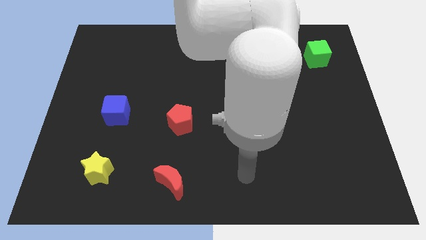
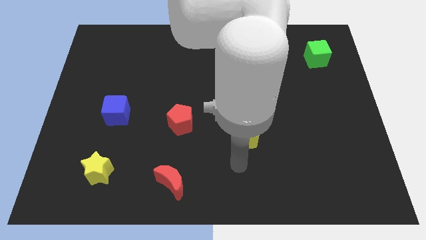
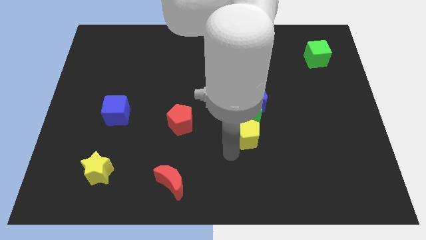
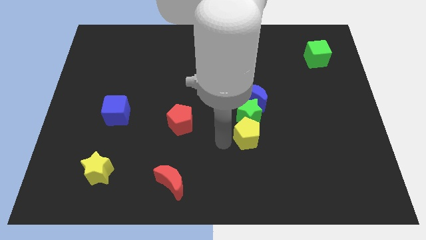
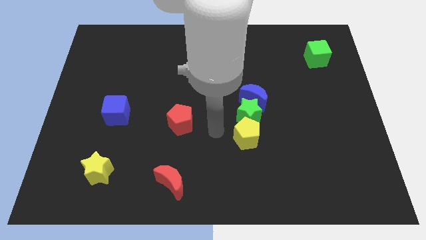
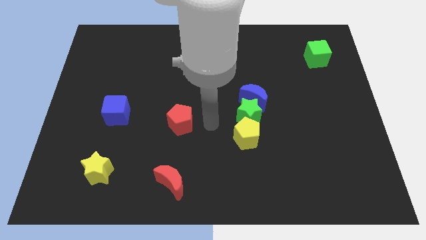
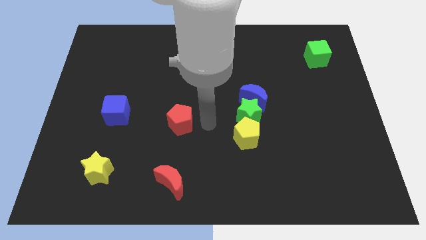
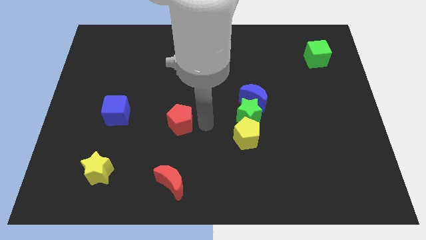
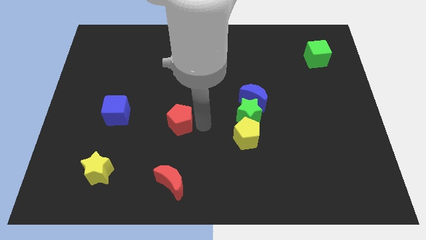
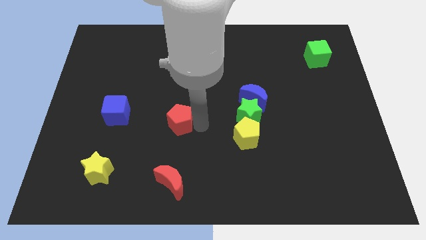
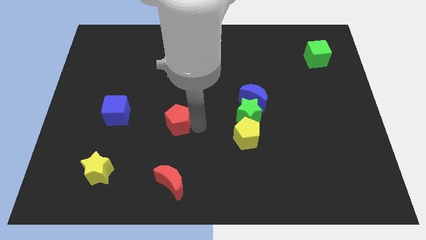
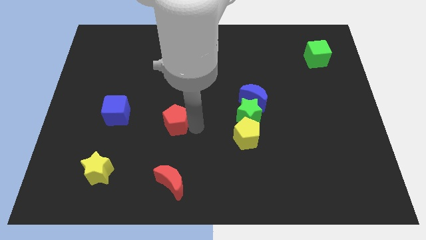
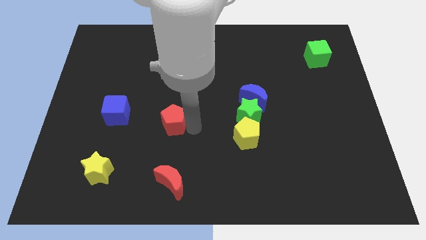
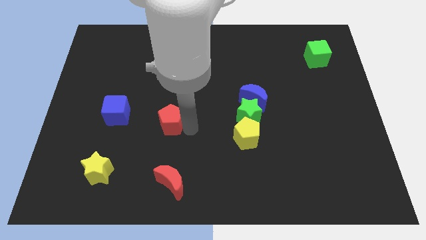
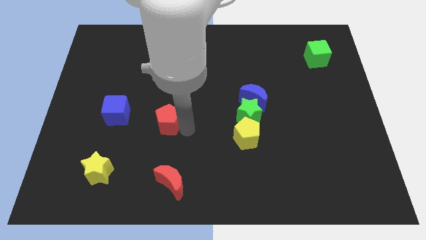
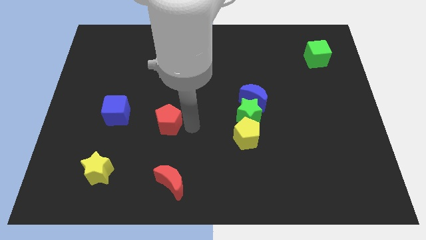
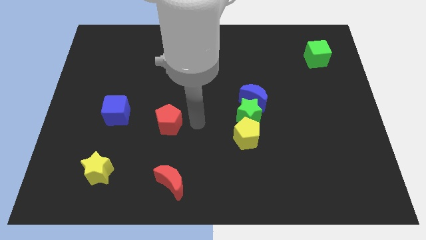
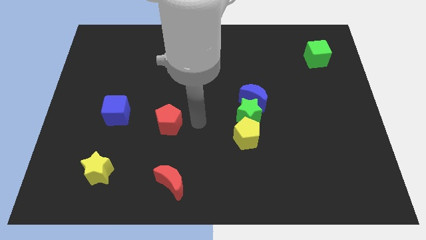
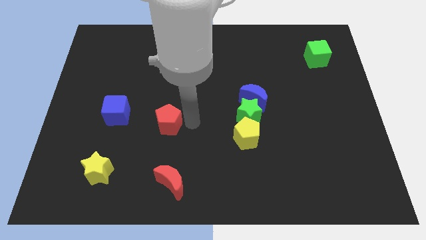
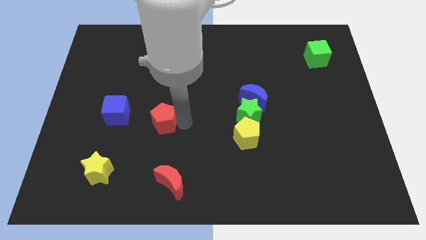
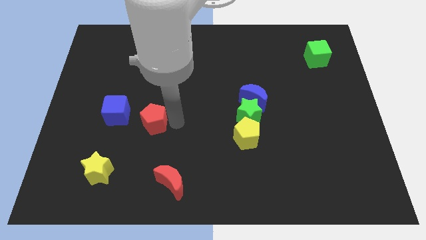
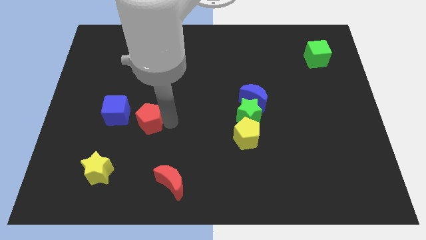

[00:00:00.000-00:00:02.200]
slide the red pentagon a little bit left

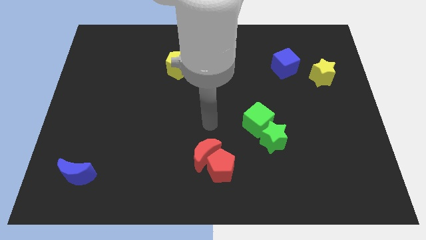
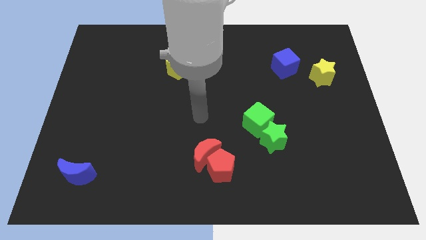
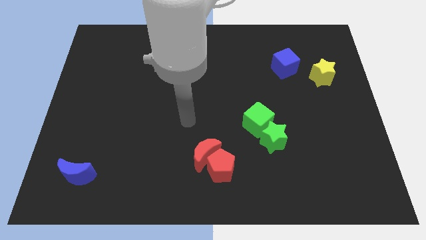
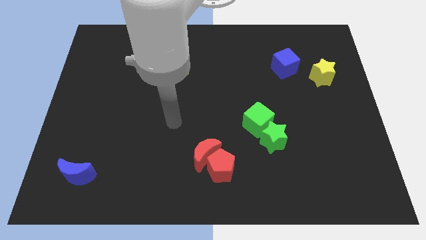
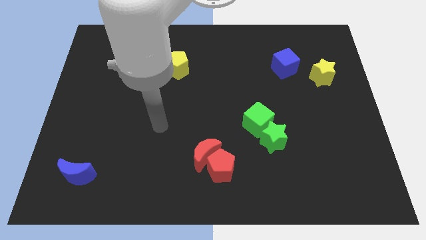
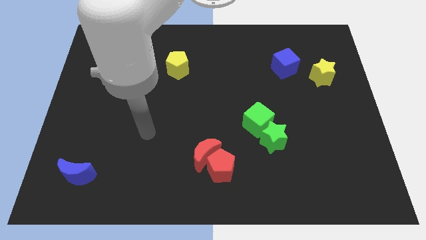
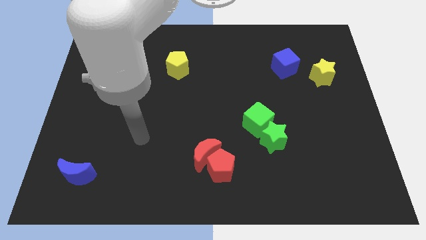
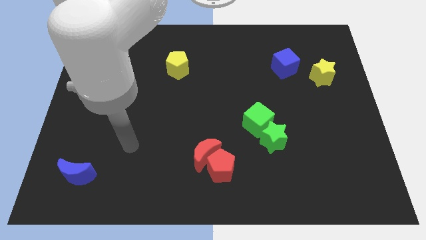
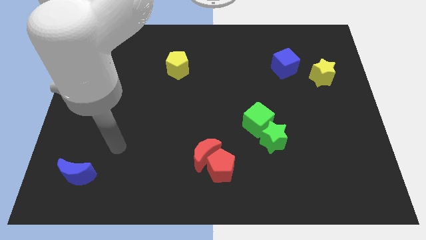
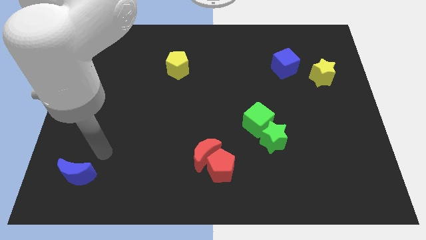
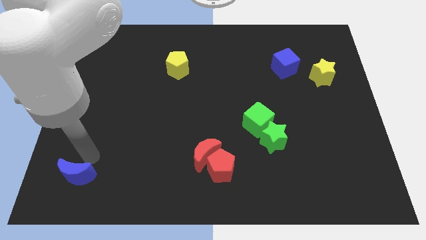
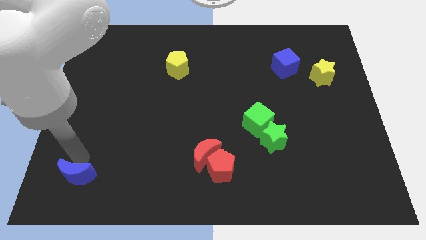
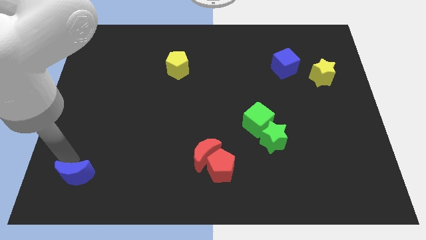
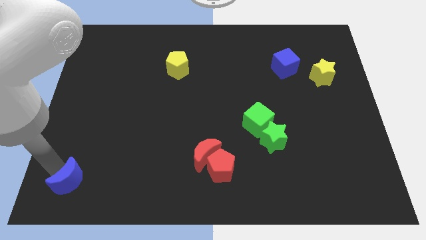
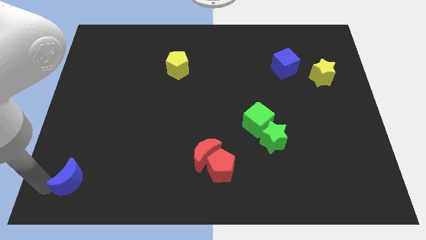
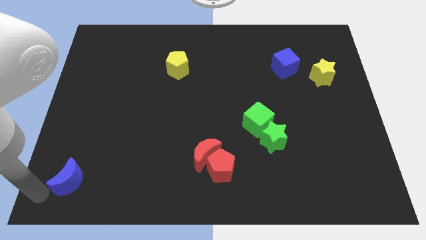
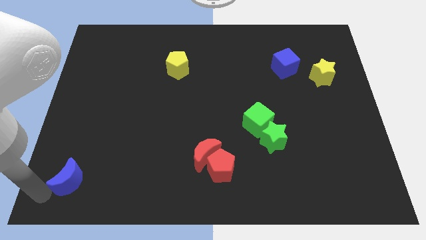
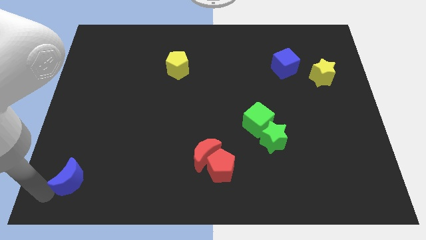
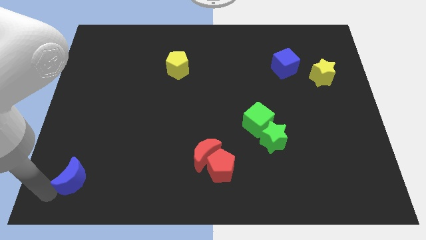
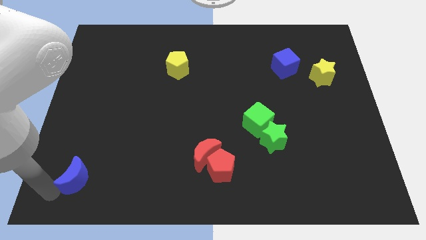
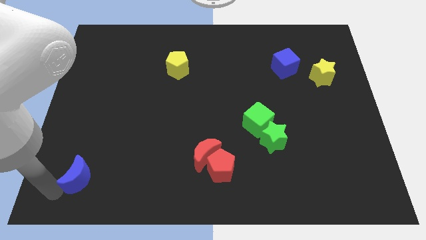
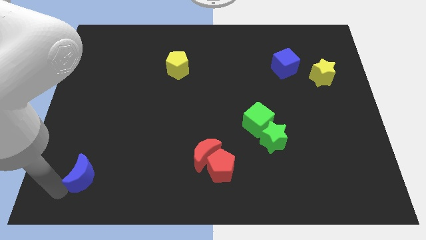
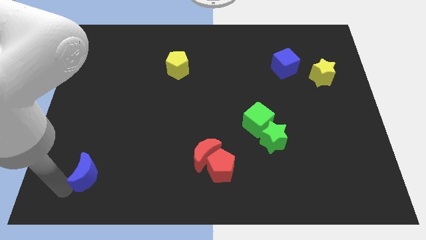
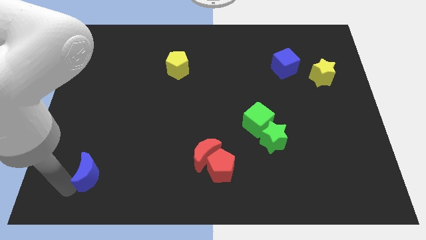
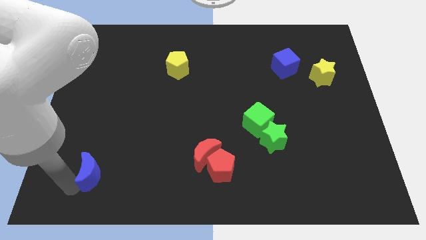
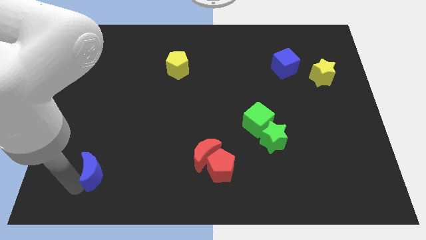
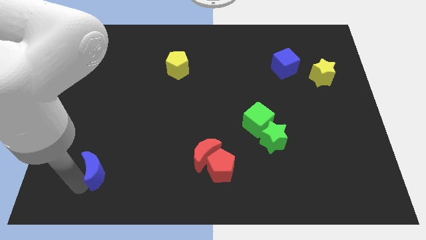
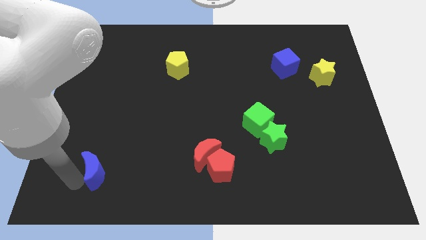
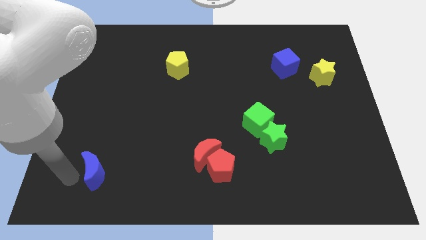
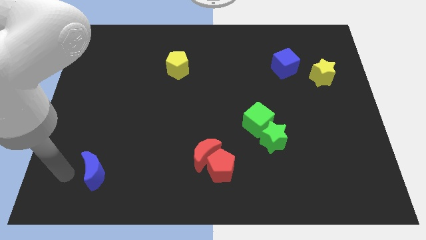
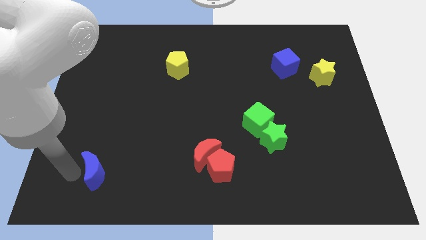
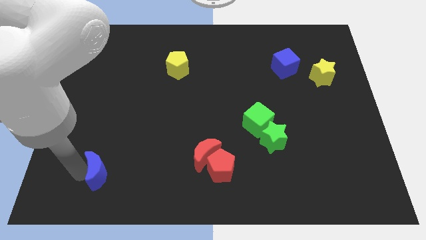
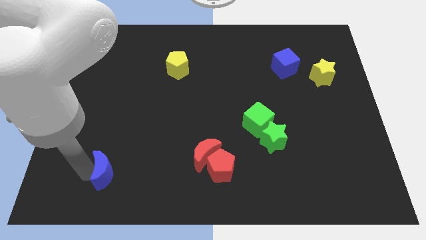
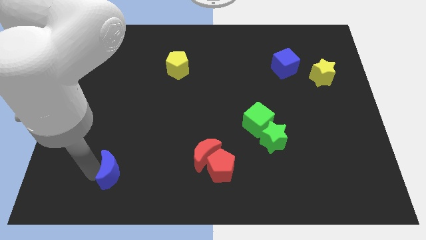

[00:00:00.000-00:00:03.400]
slightly move the blue moon to the right

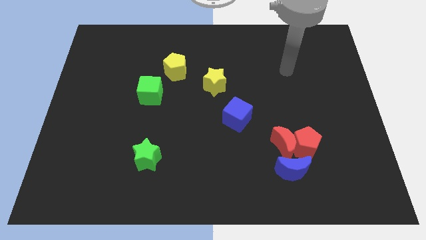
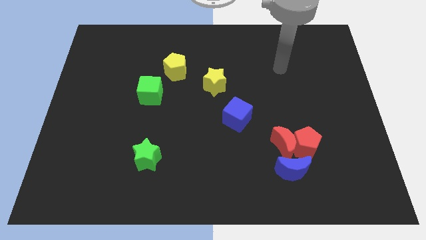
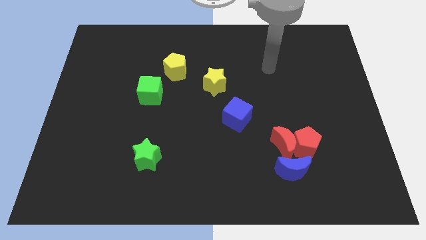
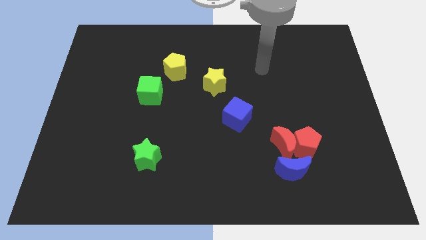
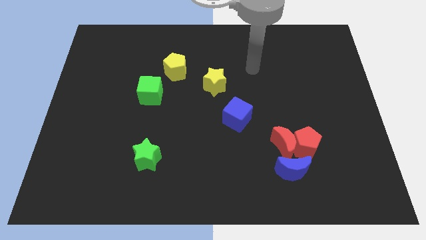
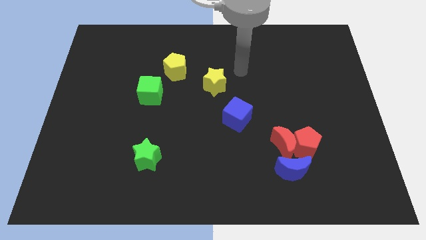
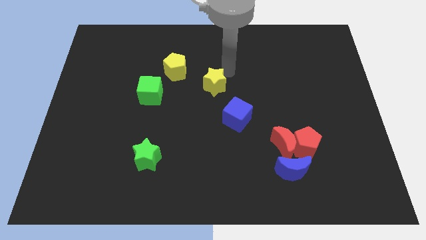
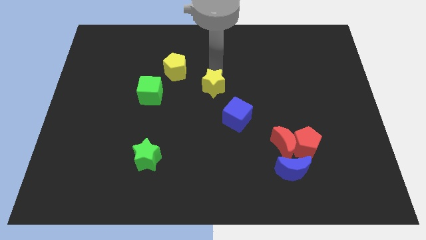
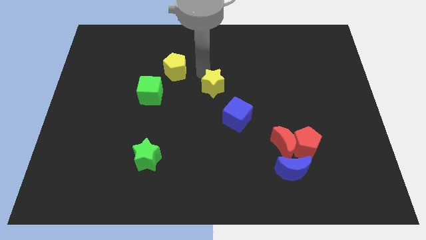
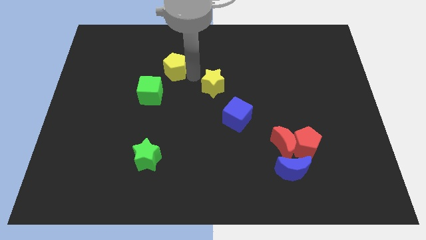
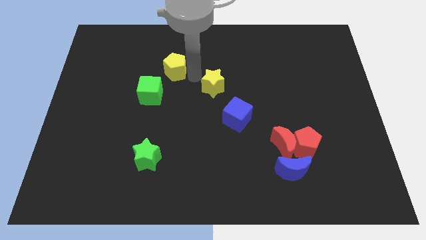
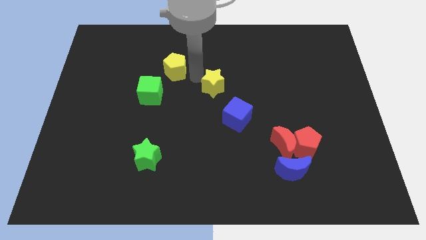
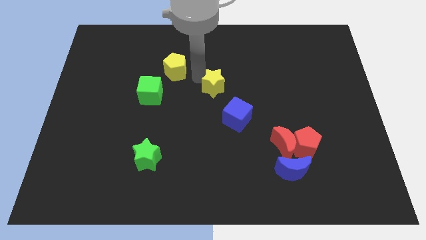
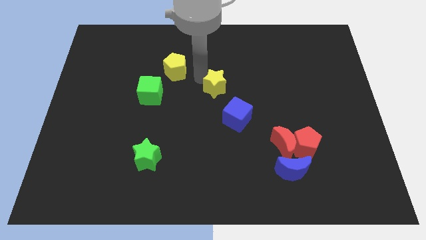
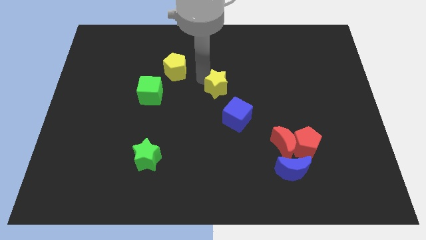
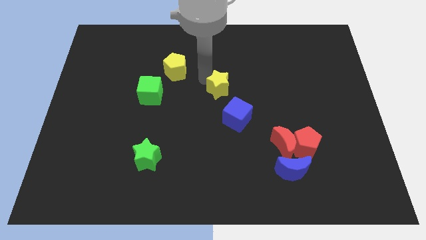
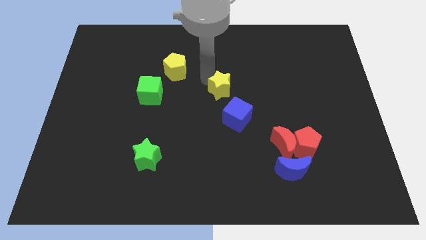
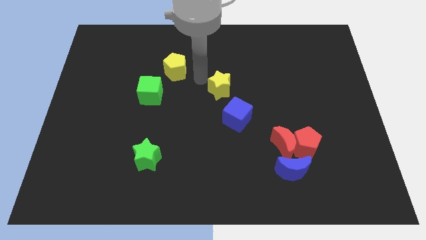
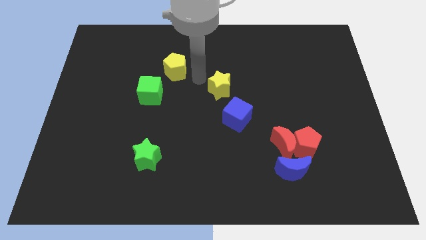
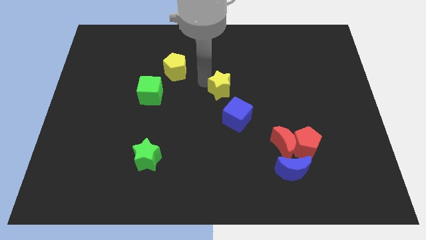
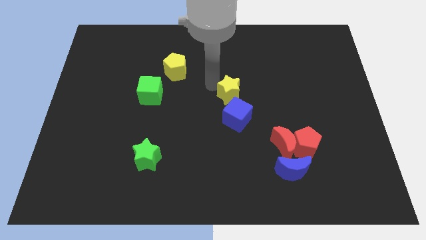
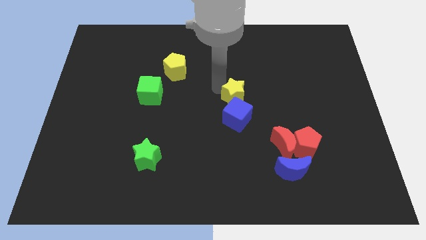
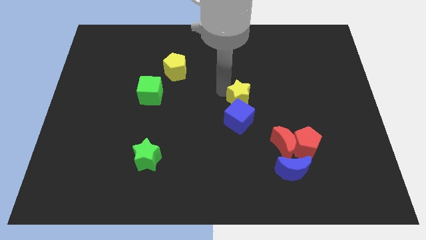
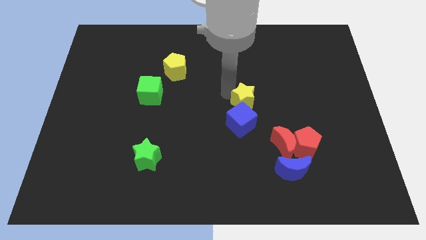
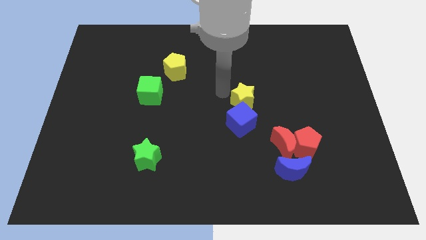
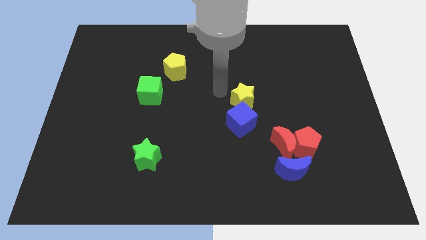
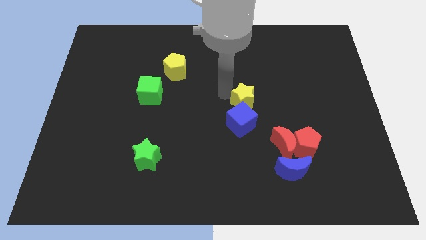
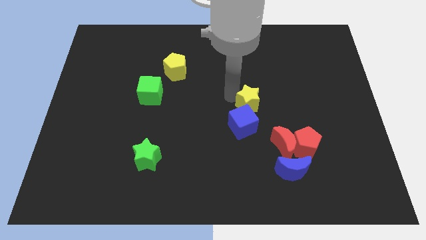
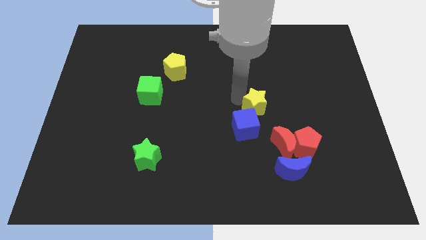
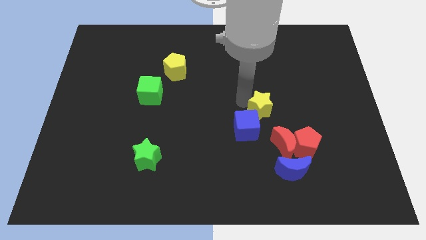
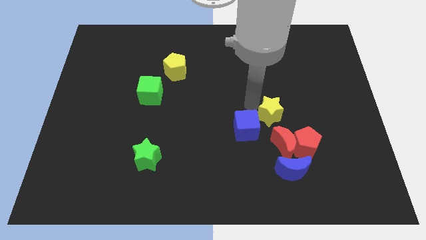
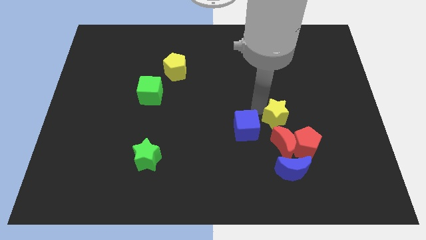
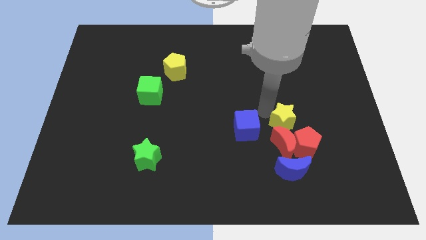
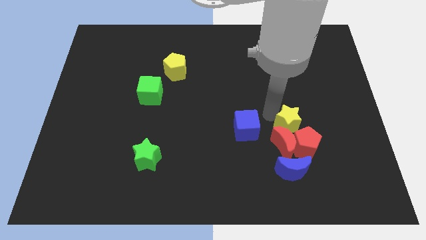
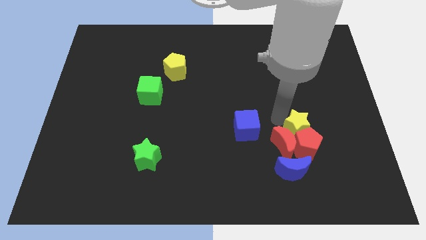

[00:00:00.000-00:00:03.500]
push the yellow star down and then to the right
